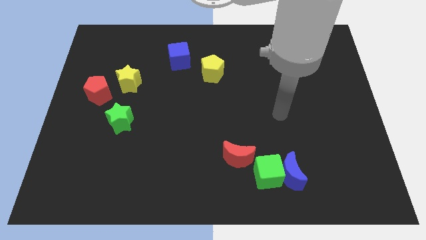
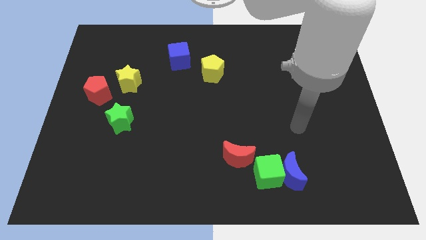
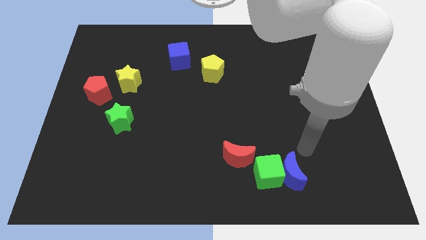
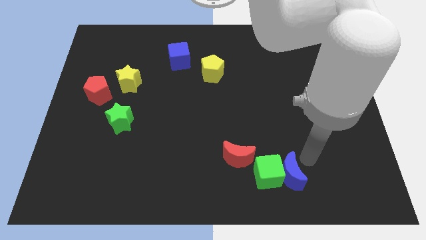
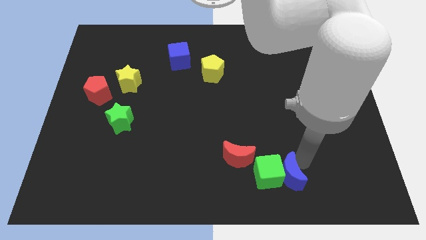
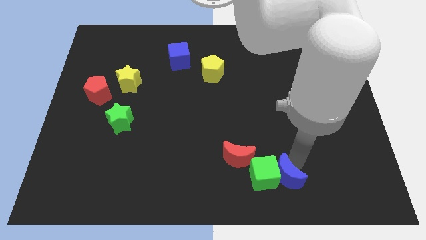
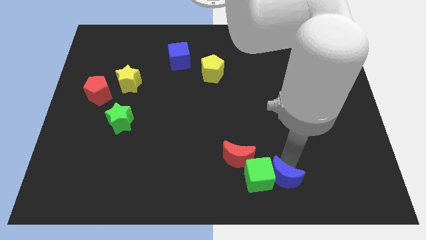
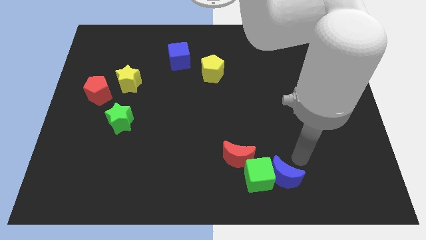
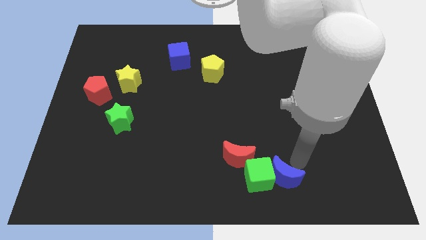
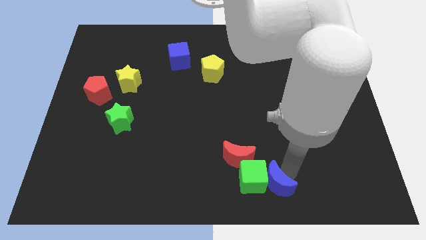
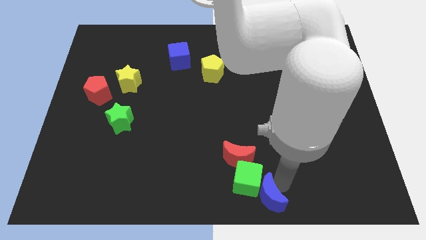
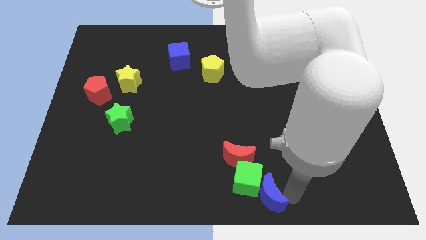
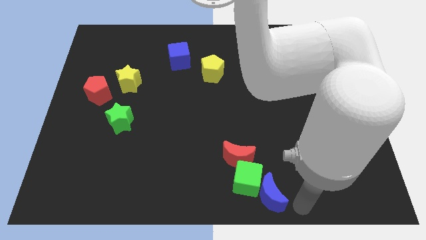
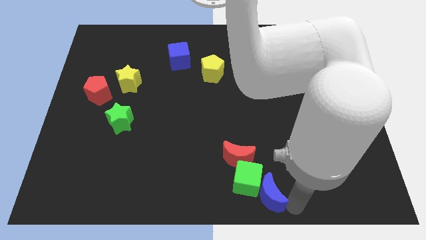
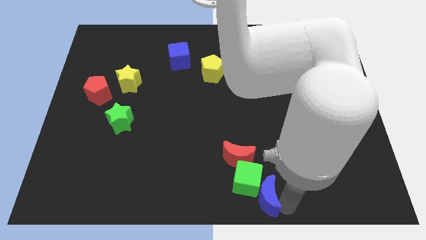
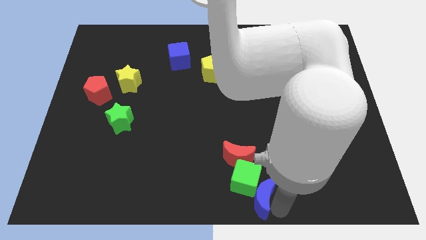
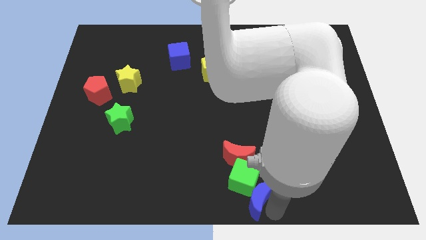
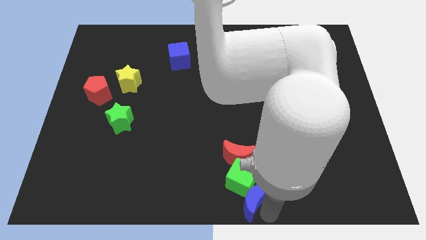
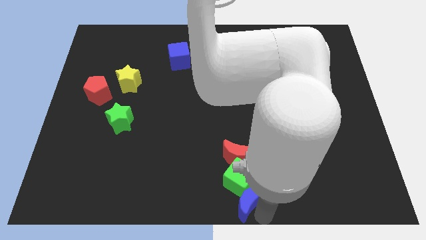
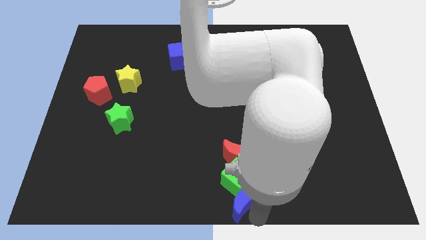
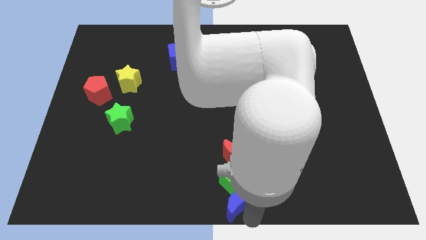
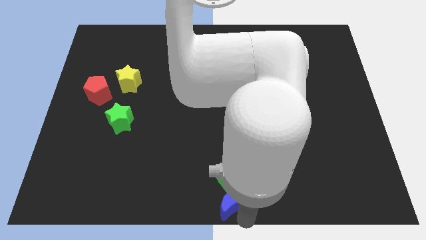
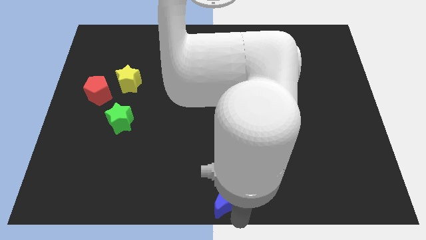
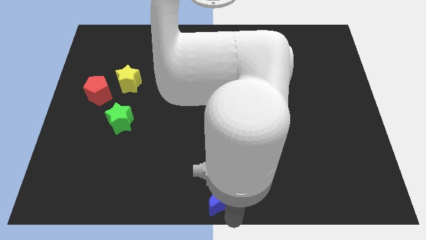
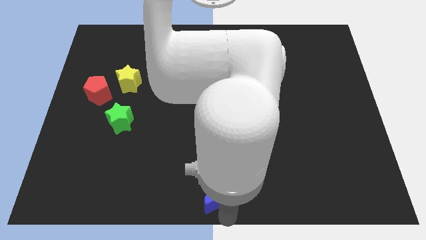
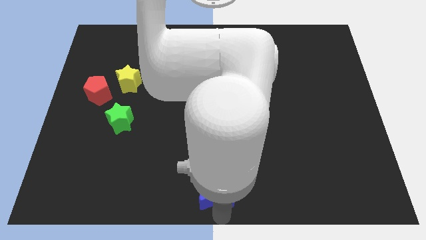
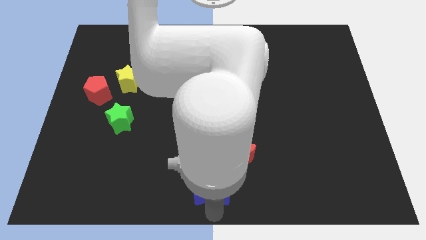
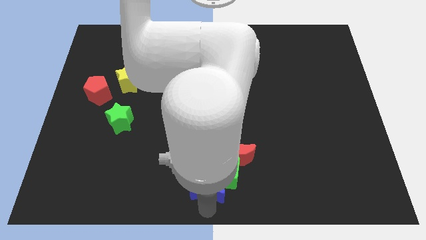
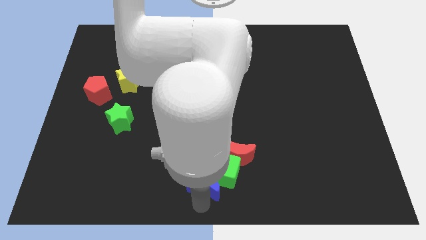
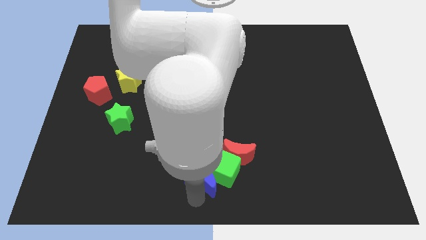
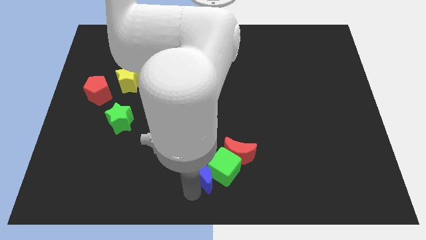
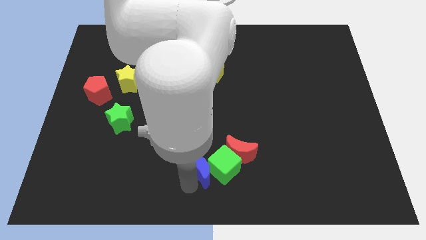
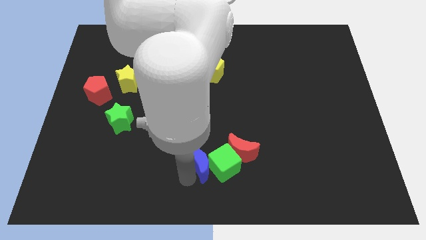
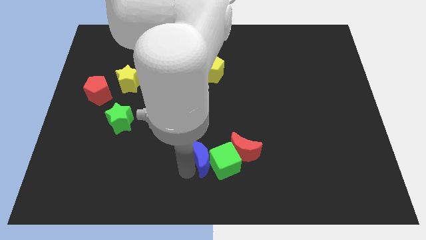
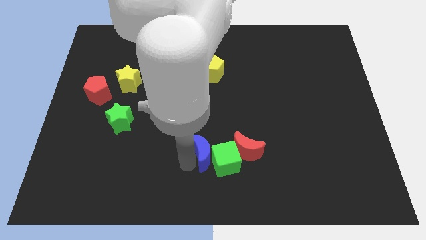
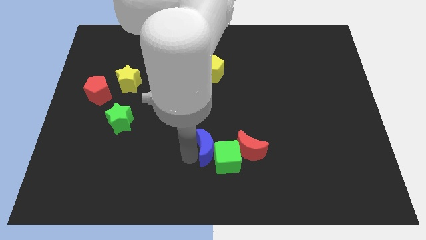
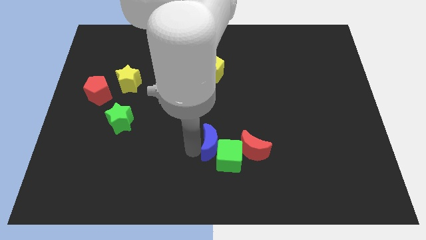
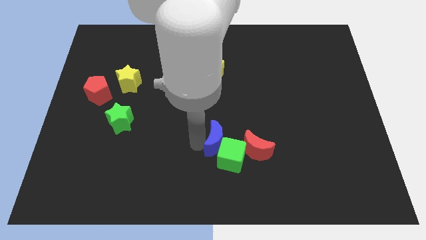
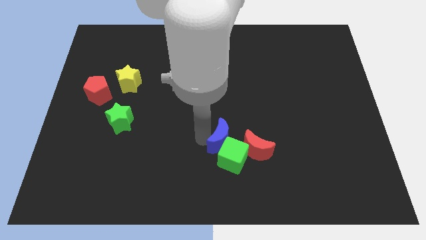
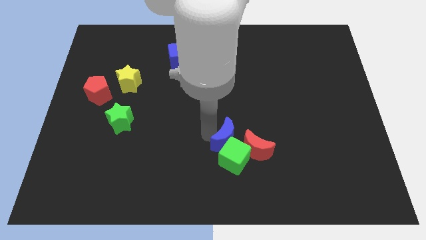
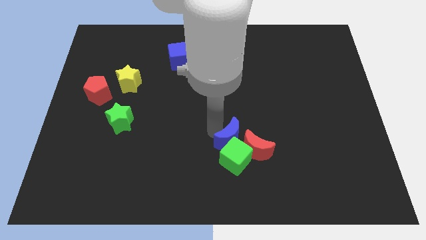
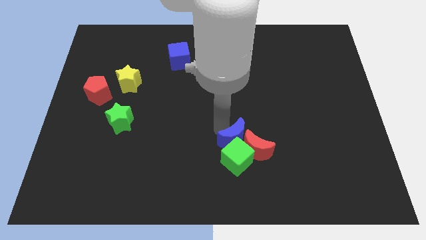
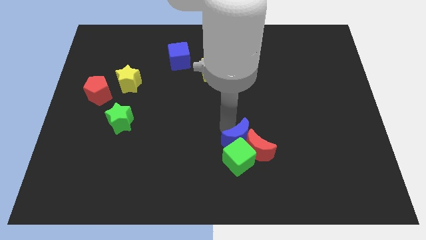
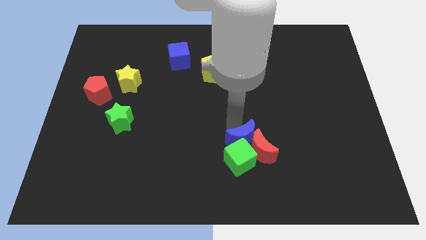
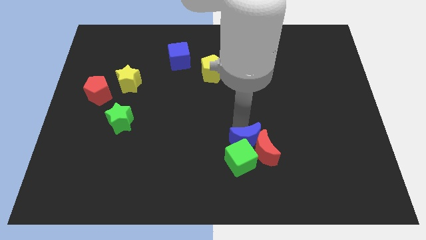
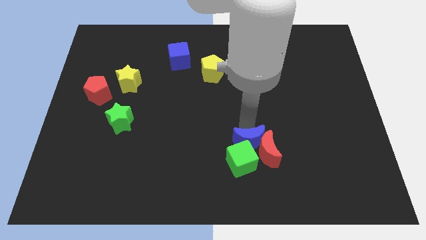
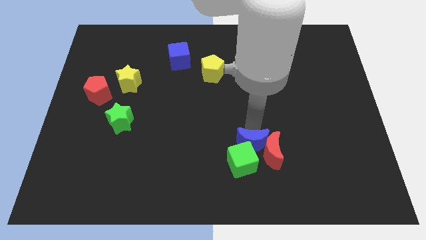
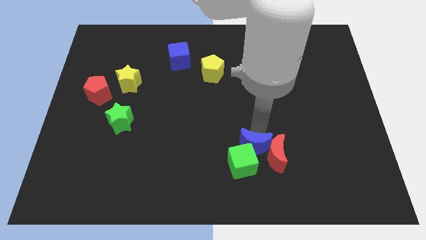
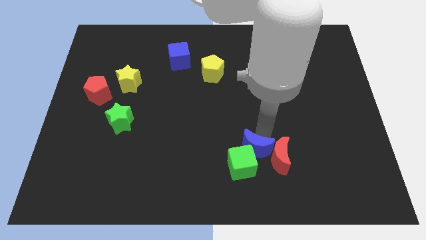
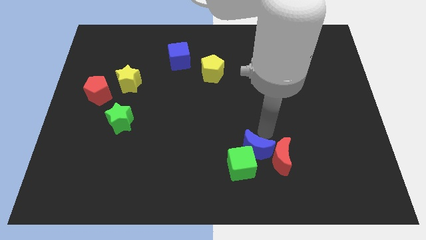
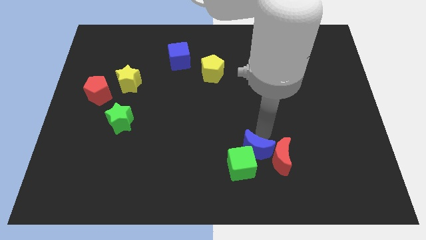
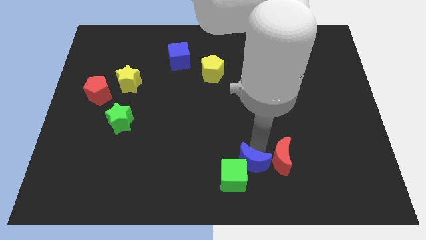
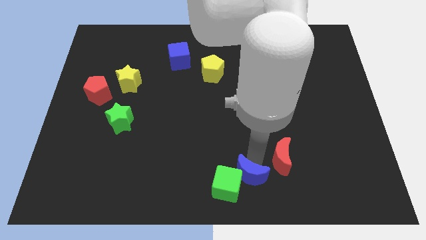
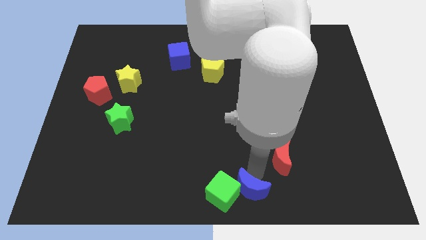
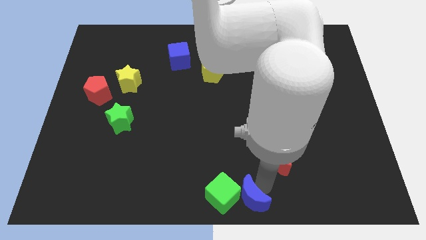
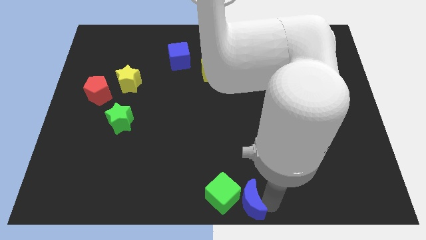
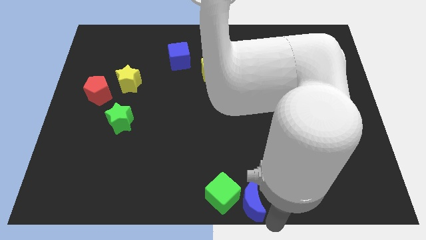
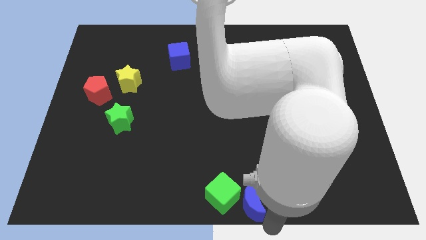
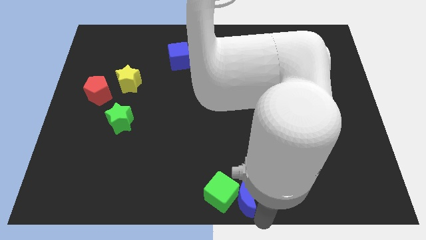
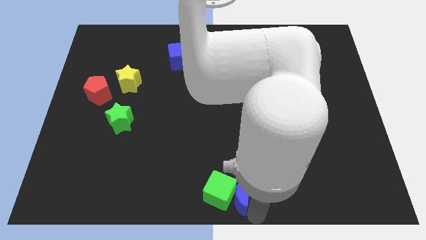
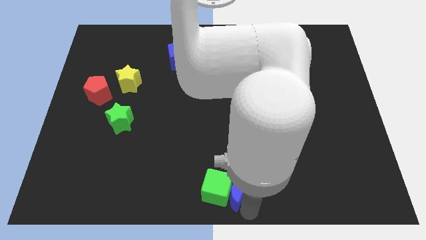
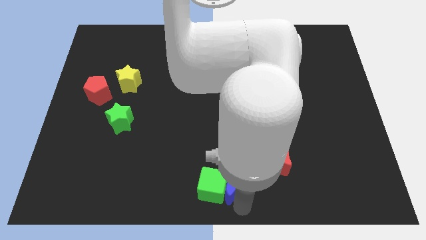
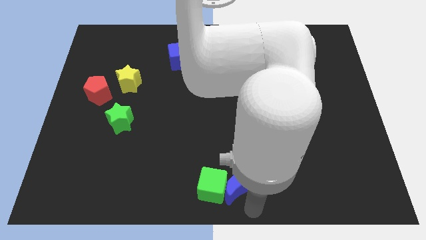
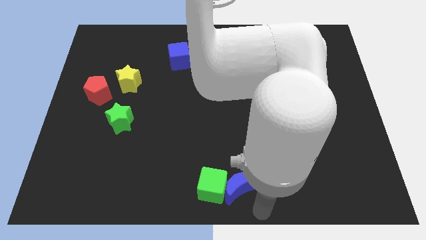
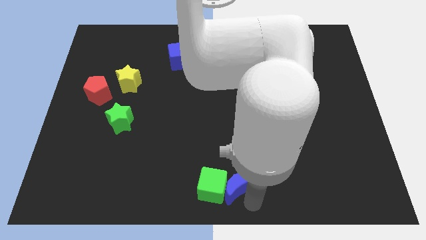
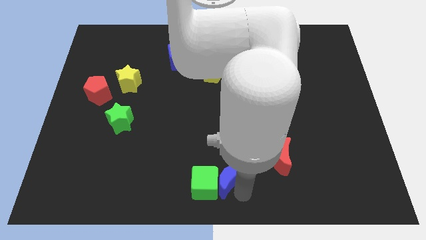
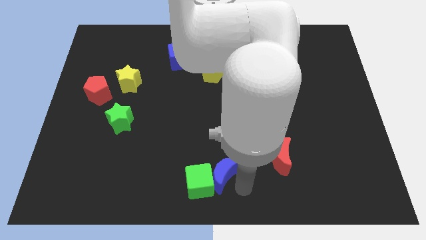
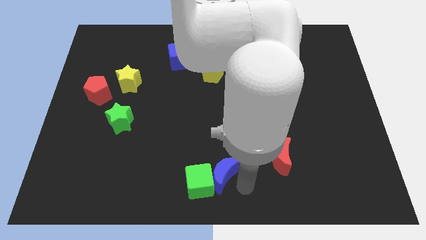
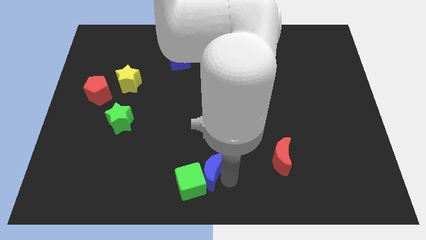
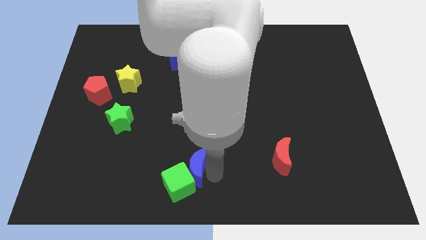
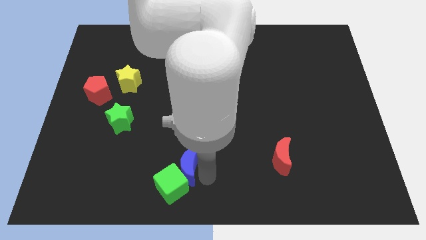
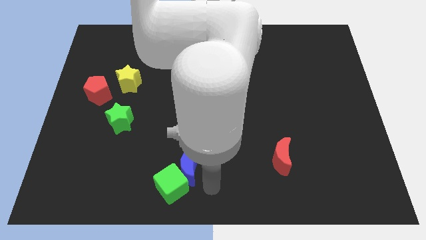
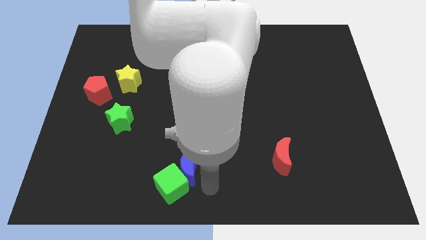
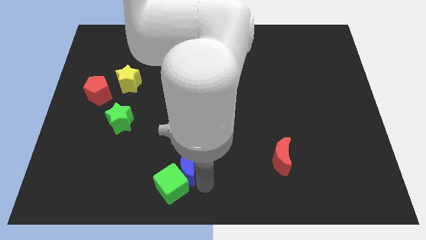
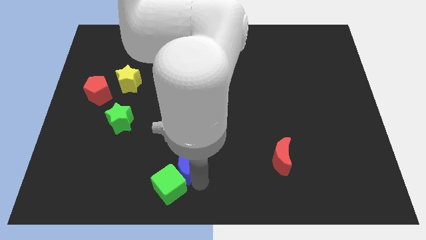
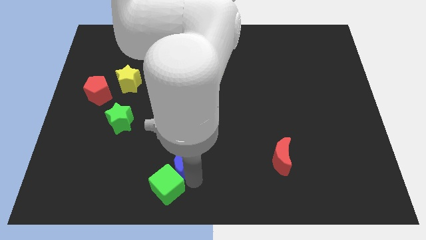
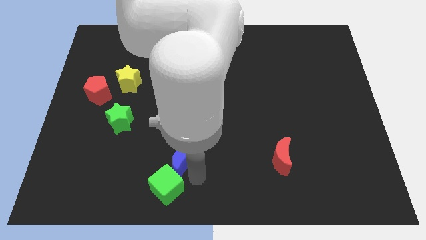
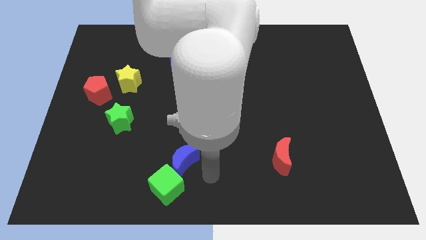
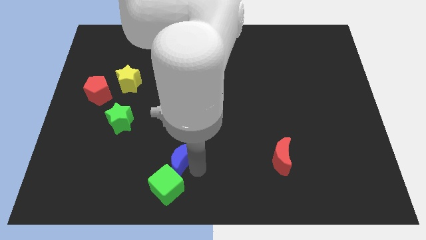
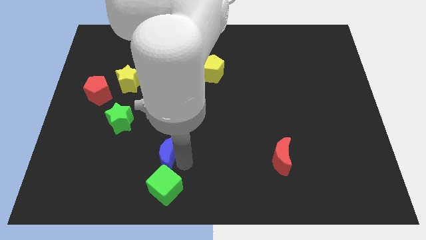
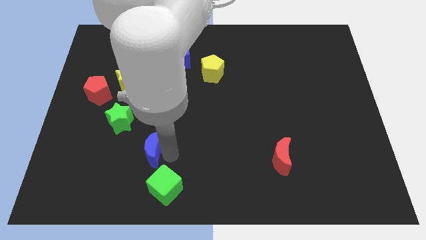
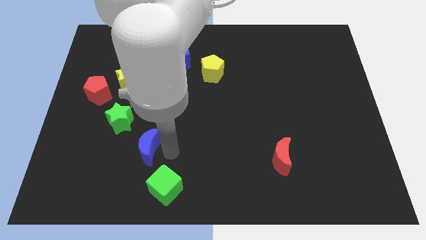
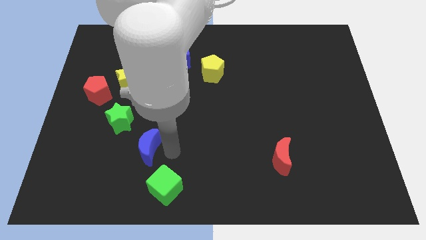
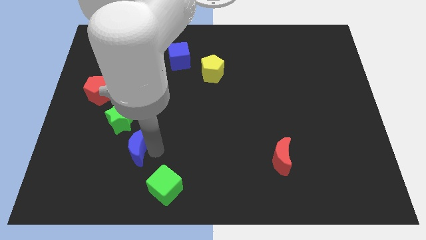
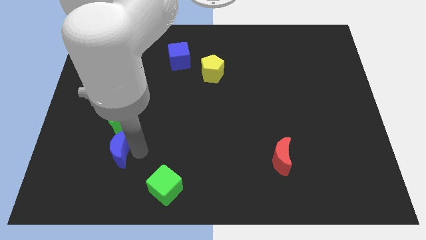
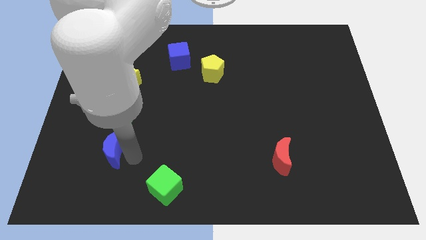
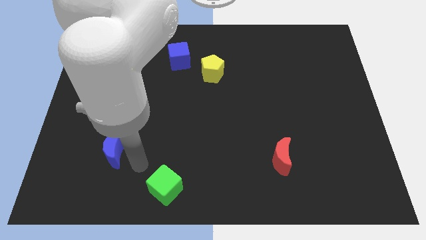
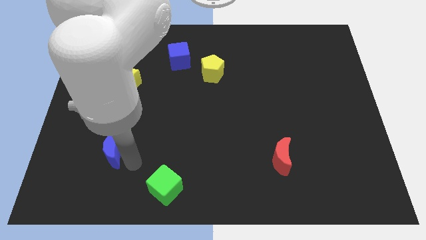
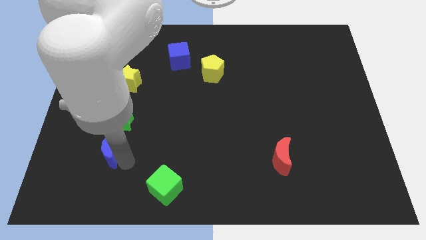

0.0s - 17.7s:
put the blue moon to the bottom left of the green star
